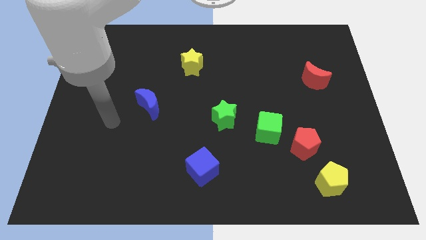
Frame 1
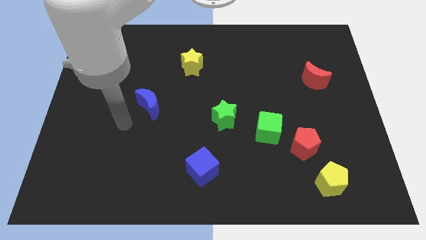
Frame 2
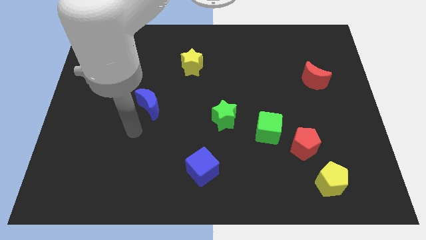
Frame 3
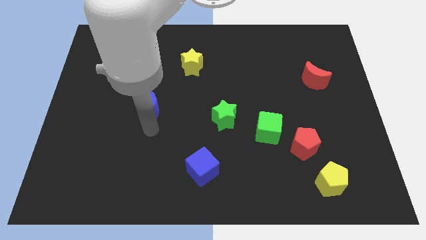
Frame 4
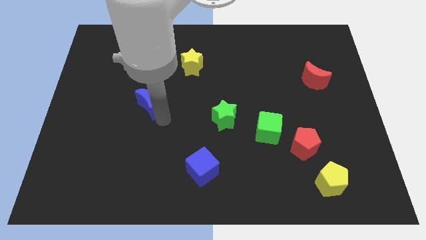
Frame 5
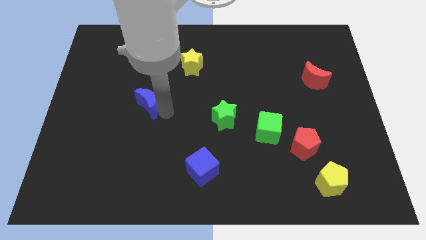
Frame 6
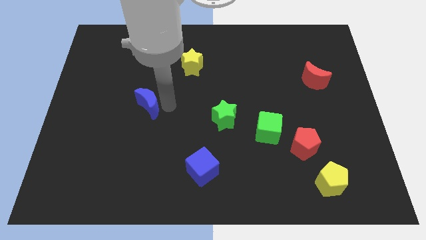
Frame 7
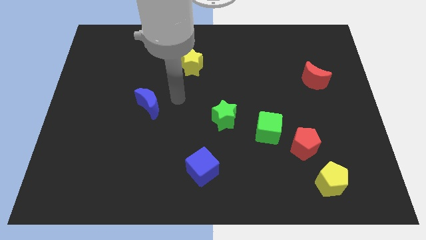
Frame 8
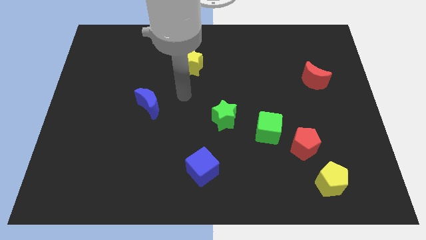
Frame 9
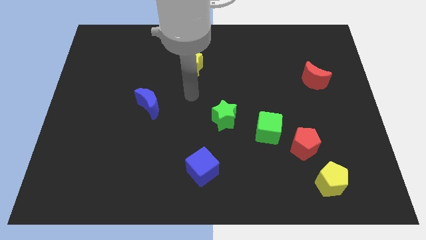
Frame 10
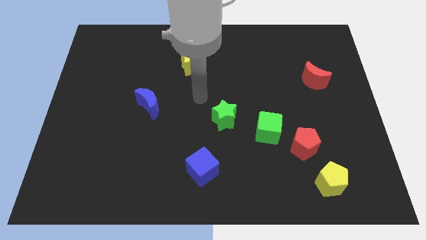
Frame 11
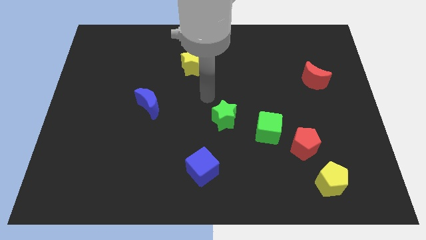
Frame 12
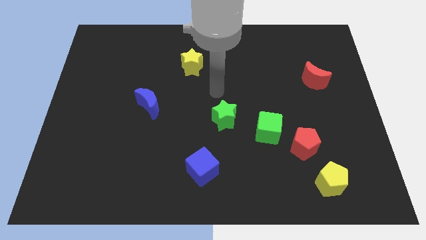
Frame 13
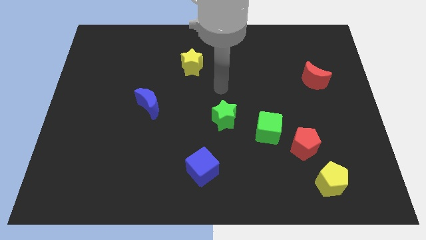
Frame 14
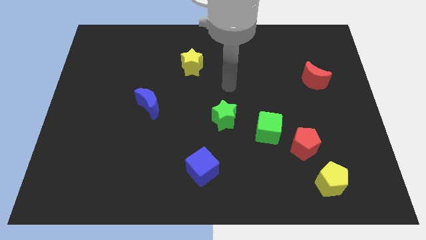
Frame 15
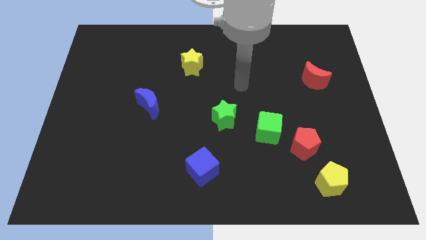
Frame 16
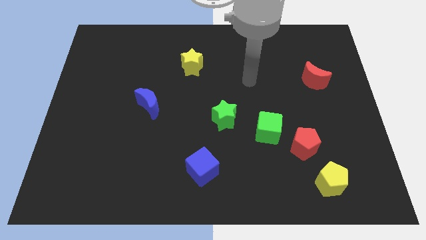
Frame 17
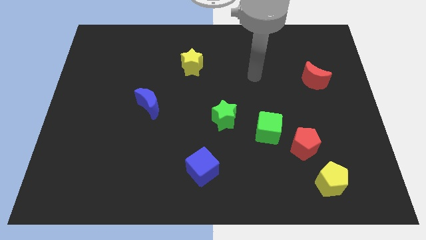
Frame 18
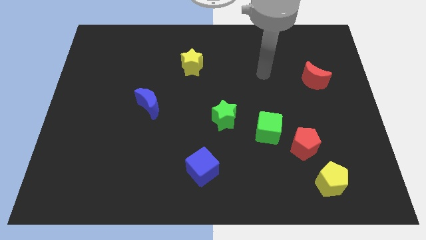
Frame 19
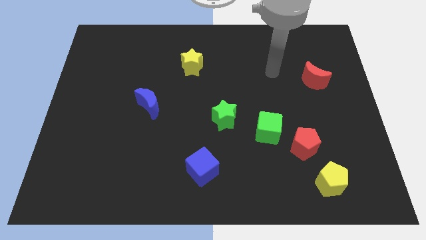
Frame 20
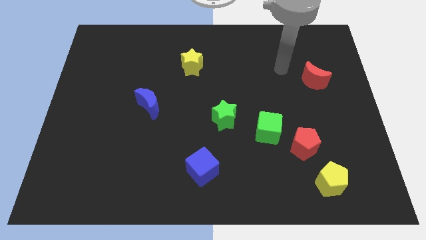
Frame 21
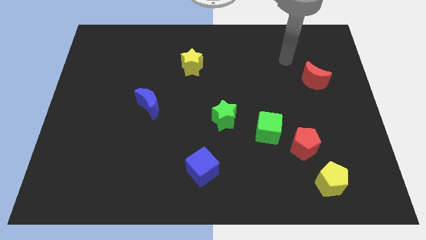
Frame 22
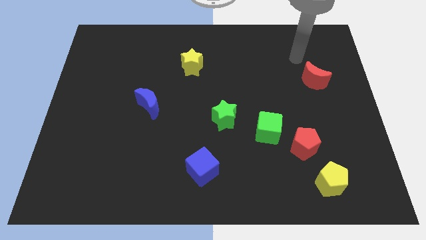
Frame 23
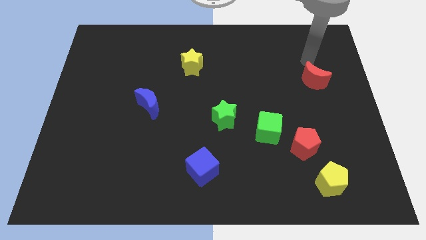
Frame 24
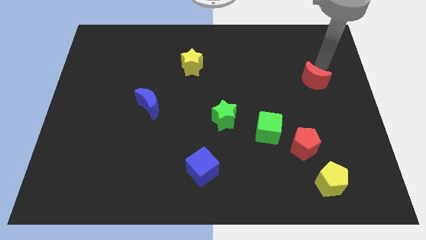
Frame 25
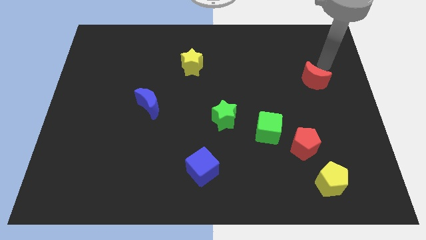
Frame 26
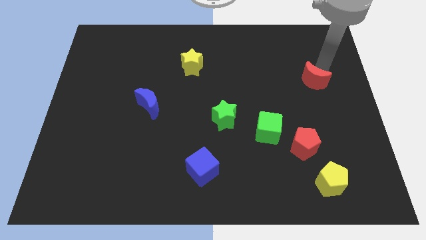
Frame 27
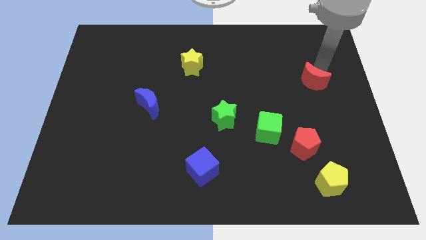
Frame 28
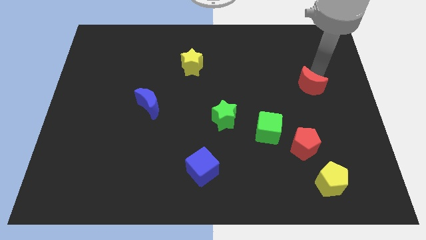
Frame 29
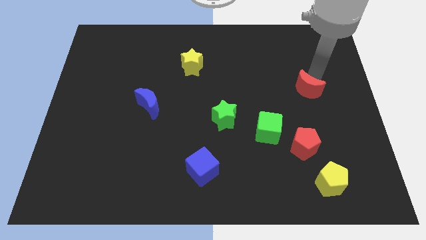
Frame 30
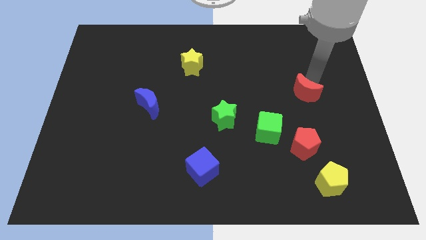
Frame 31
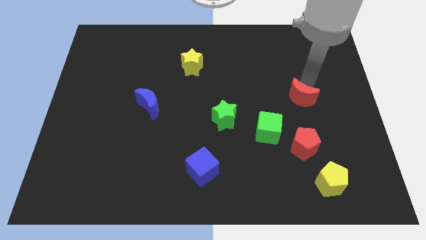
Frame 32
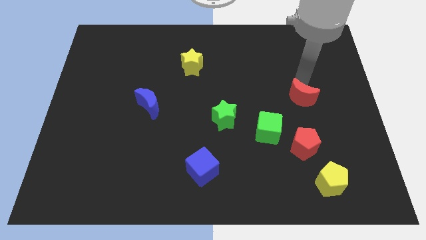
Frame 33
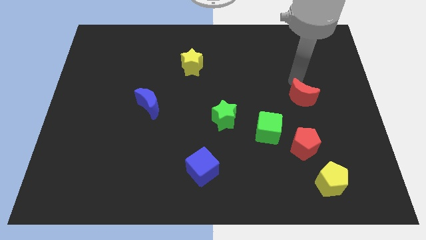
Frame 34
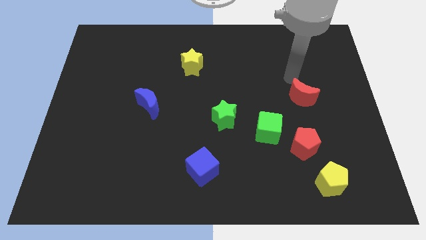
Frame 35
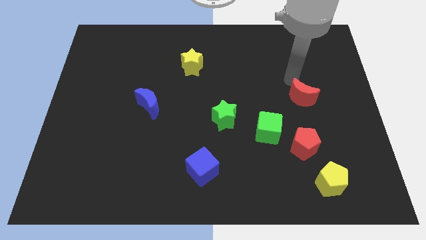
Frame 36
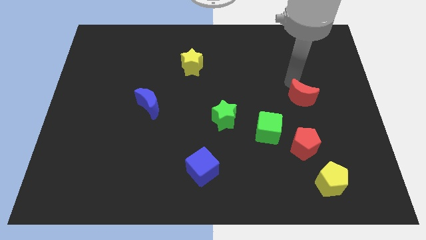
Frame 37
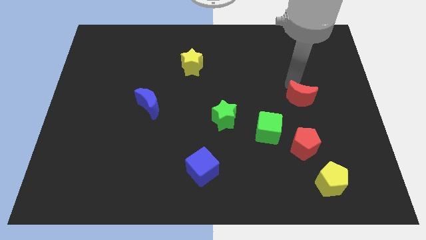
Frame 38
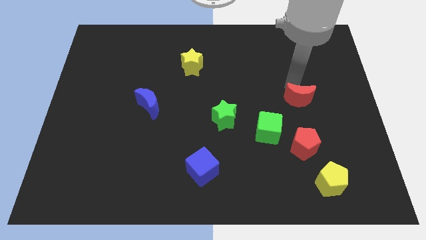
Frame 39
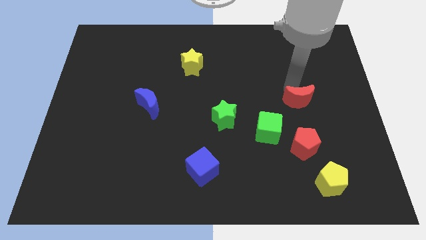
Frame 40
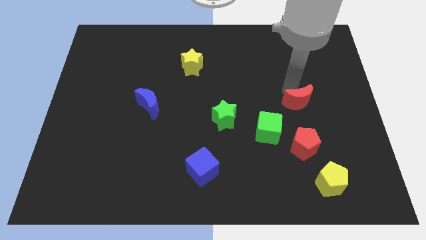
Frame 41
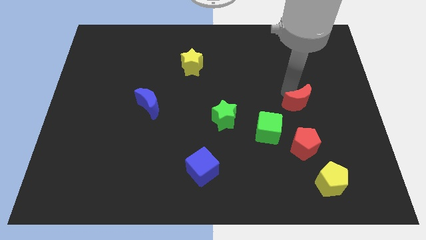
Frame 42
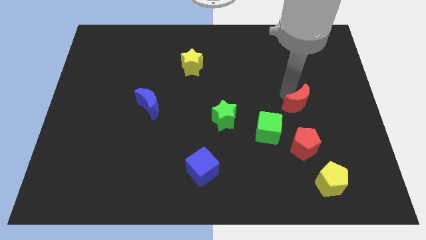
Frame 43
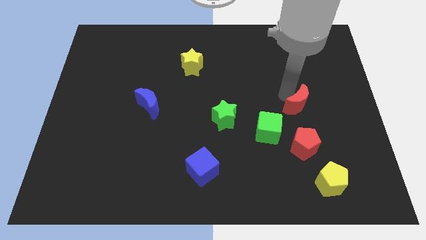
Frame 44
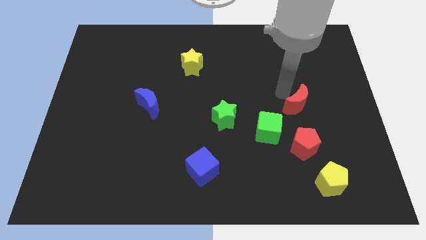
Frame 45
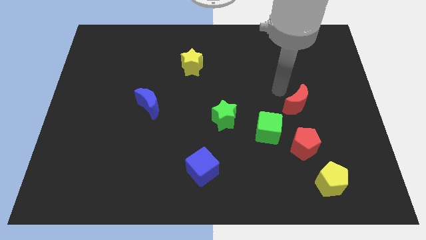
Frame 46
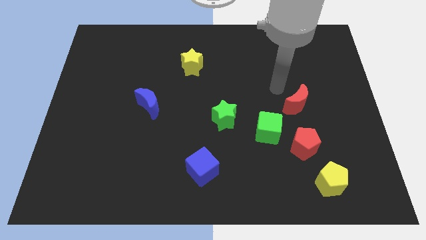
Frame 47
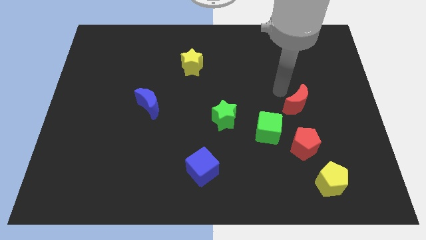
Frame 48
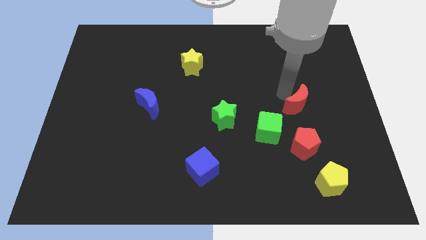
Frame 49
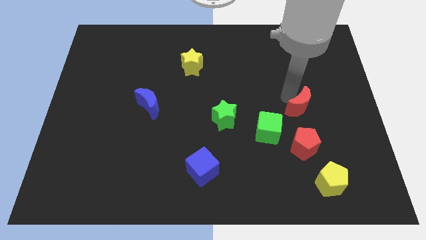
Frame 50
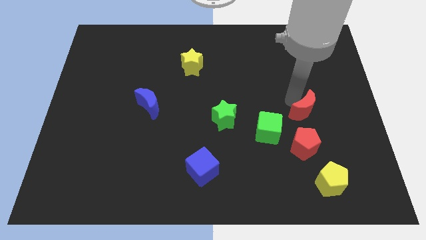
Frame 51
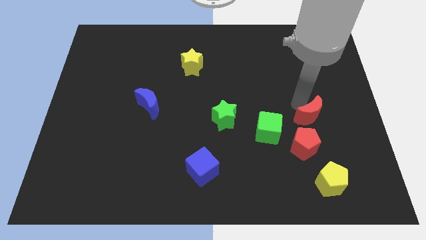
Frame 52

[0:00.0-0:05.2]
put the red moon just right of the green cube
